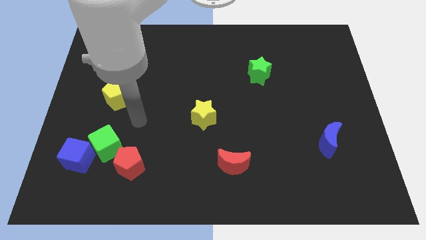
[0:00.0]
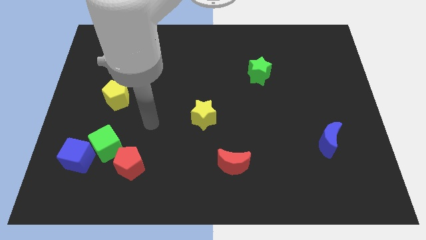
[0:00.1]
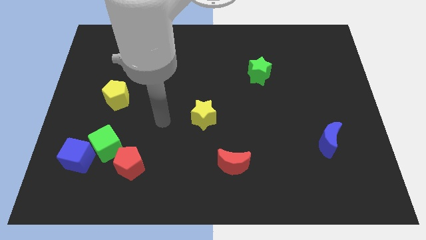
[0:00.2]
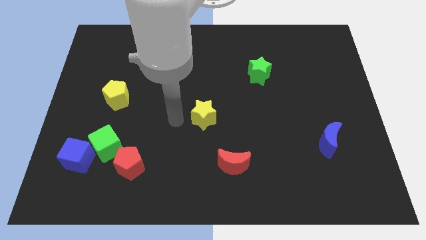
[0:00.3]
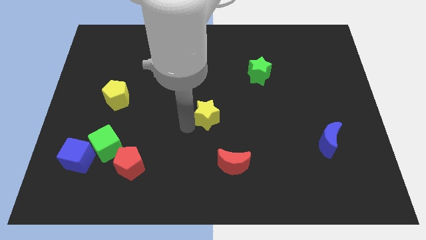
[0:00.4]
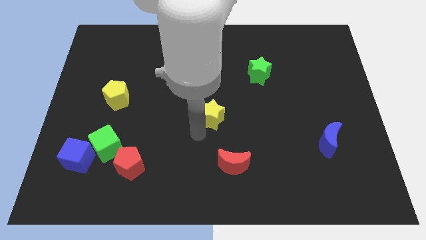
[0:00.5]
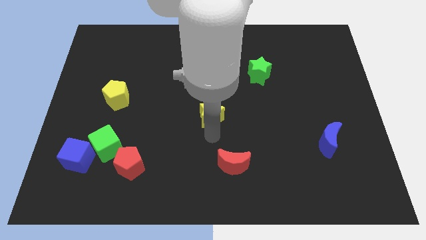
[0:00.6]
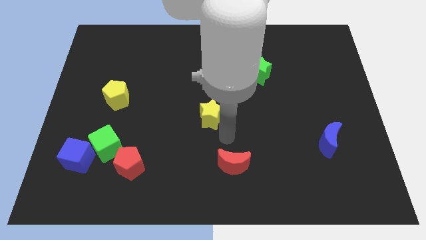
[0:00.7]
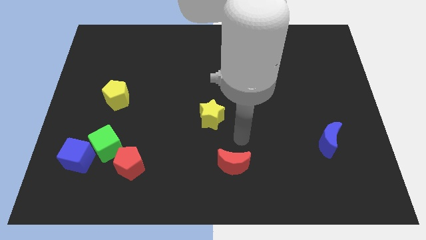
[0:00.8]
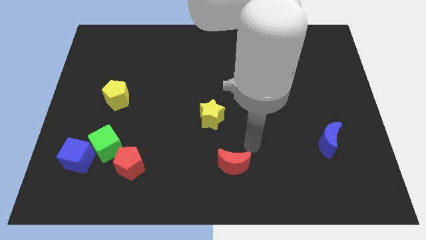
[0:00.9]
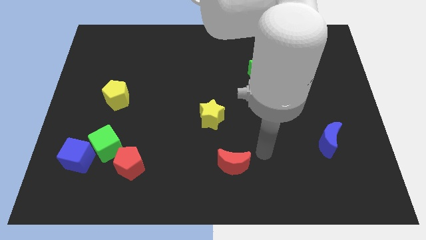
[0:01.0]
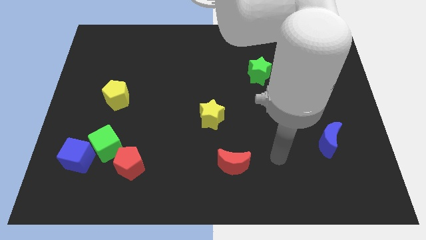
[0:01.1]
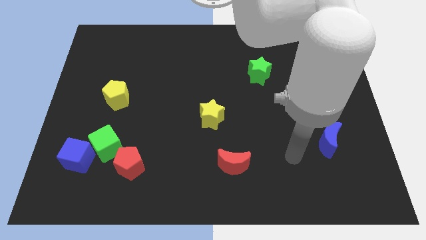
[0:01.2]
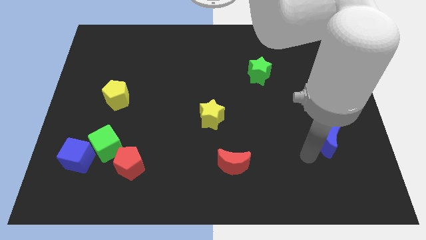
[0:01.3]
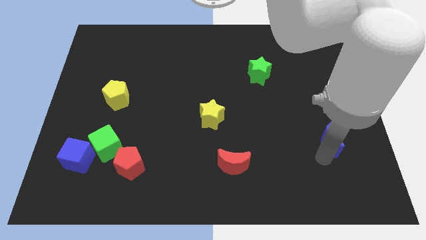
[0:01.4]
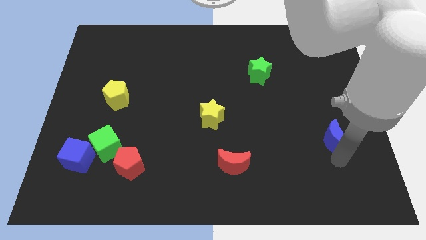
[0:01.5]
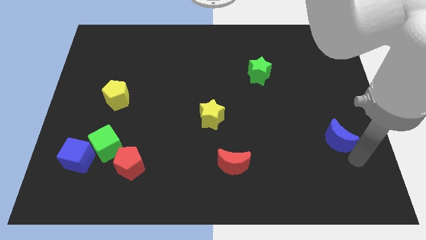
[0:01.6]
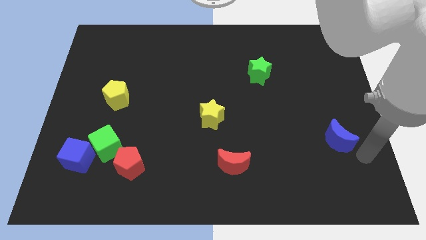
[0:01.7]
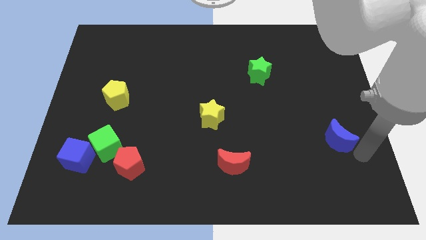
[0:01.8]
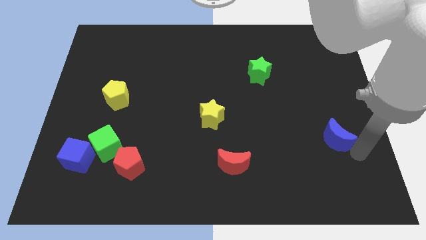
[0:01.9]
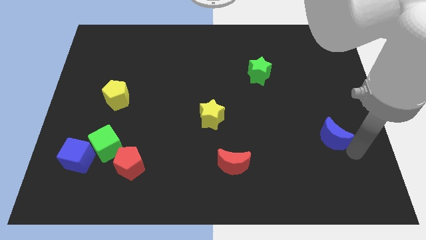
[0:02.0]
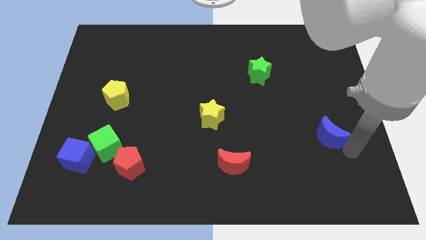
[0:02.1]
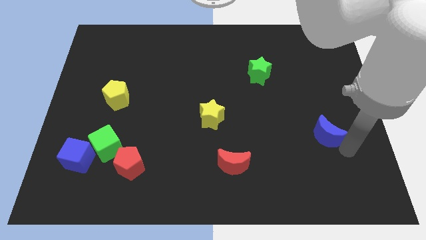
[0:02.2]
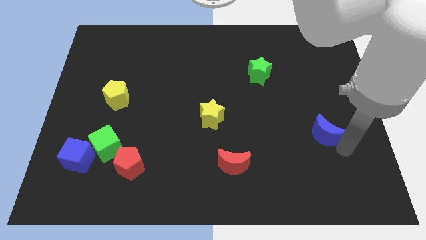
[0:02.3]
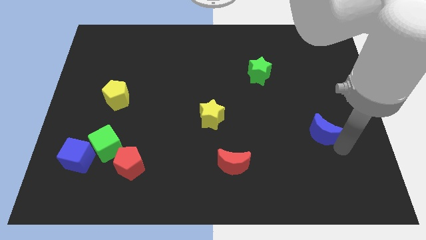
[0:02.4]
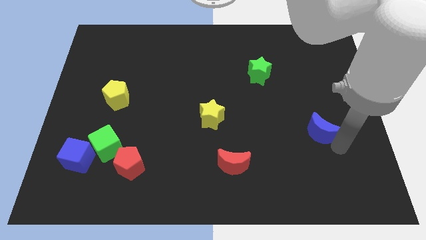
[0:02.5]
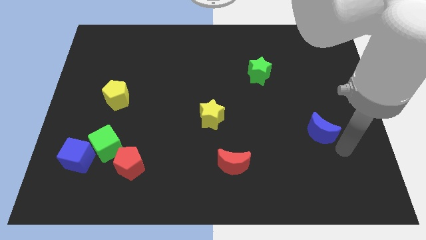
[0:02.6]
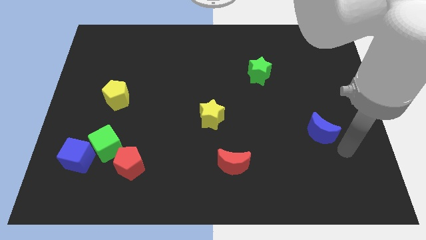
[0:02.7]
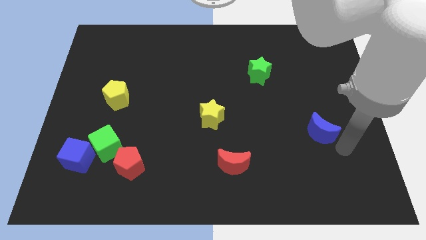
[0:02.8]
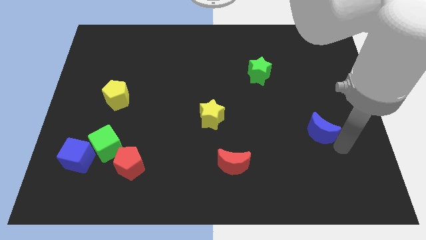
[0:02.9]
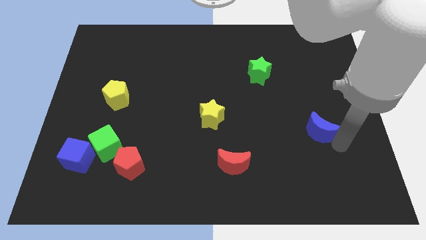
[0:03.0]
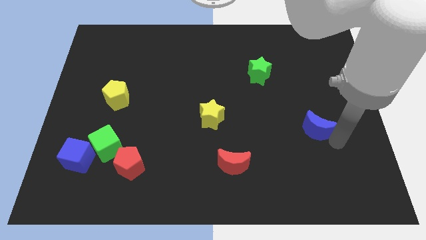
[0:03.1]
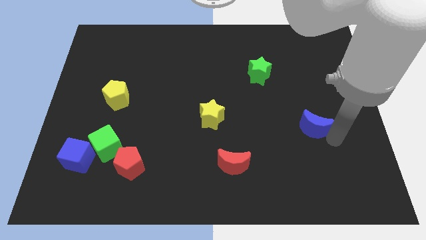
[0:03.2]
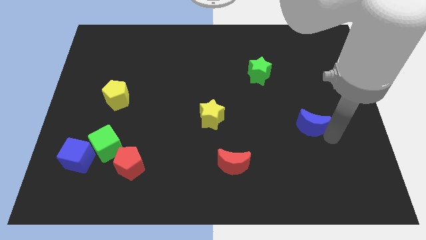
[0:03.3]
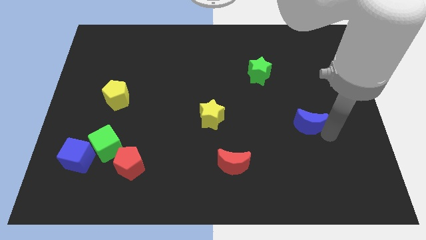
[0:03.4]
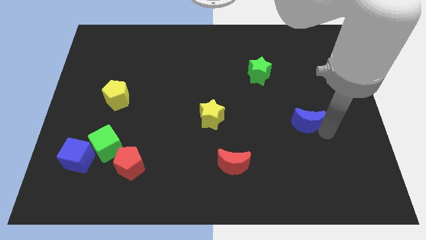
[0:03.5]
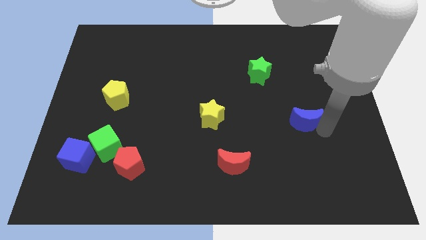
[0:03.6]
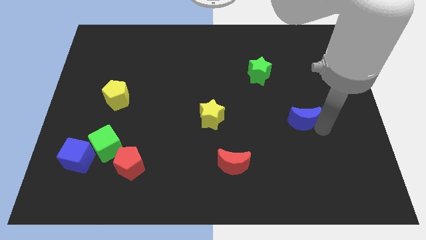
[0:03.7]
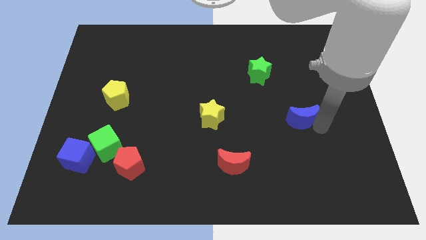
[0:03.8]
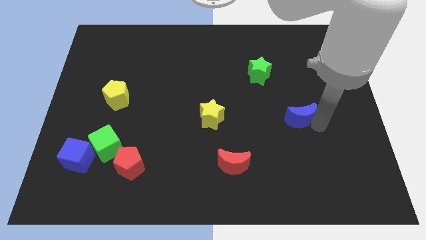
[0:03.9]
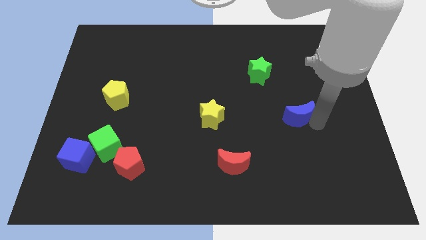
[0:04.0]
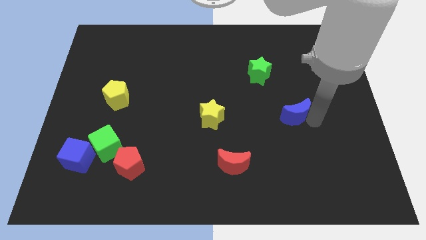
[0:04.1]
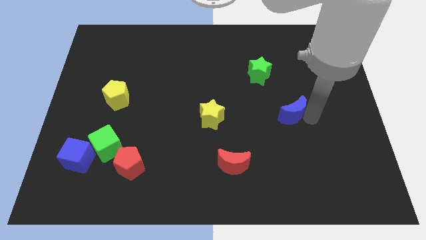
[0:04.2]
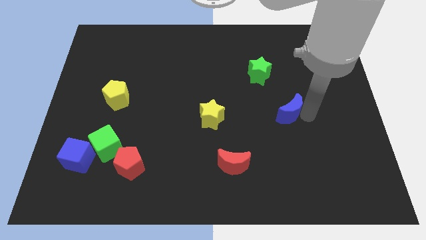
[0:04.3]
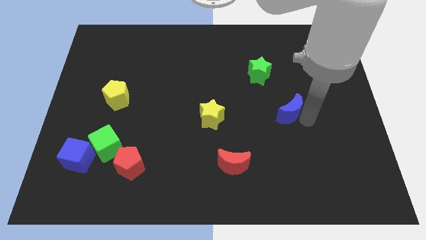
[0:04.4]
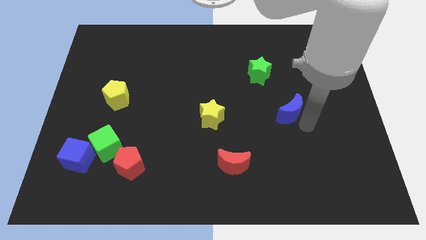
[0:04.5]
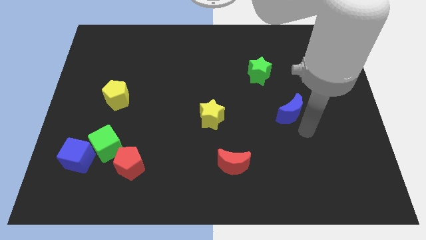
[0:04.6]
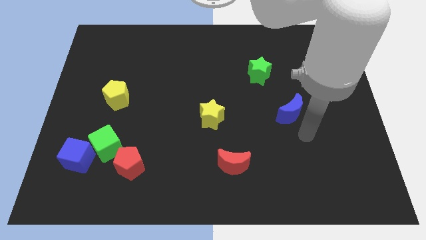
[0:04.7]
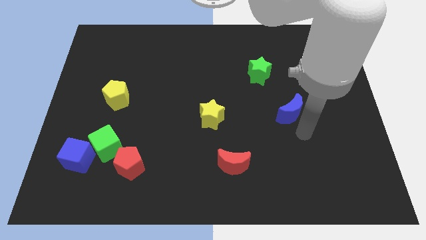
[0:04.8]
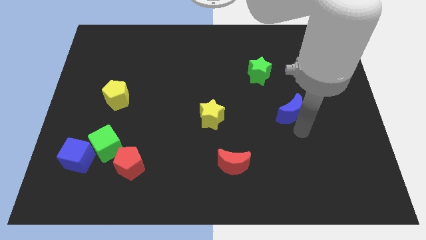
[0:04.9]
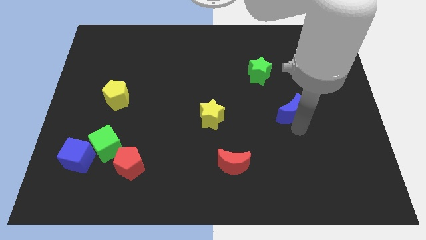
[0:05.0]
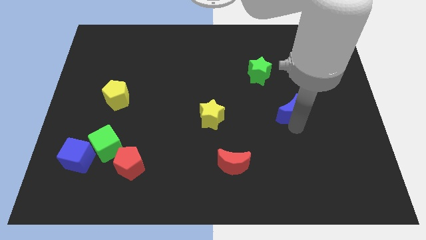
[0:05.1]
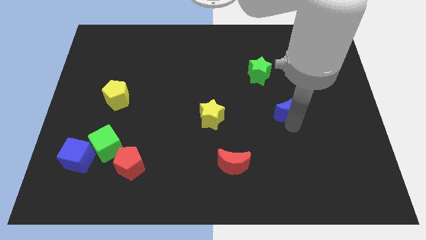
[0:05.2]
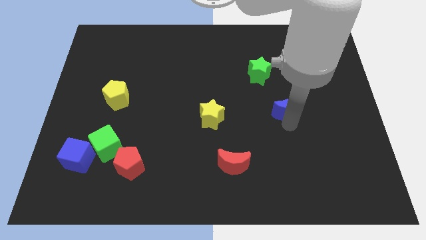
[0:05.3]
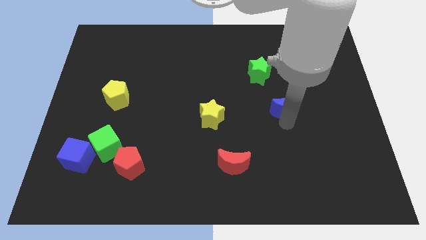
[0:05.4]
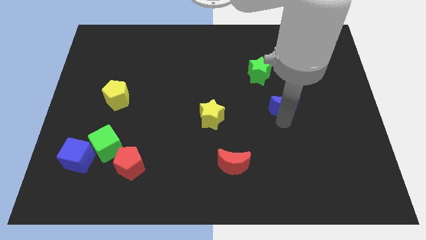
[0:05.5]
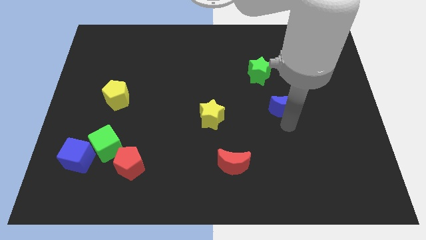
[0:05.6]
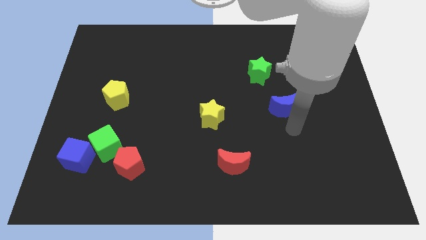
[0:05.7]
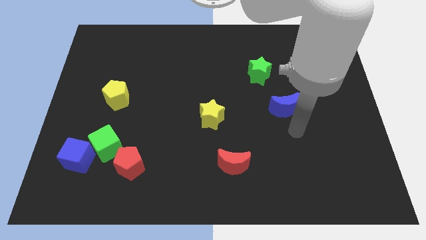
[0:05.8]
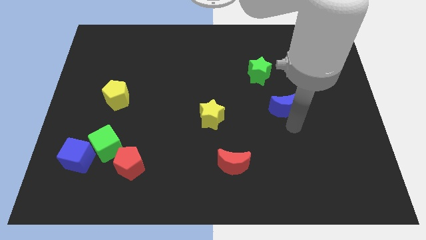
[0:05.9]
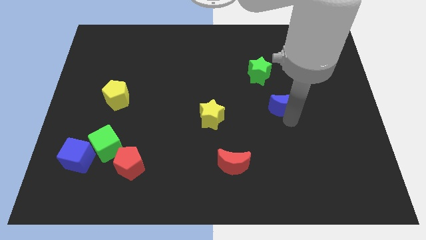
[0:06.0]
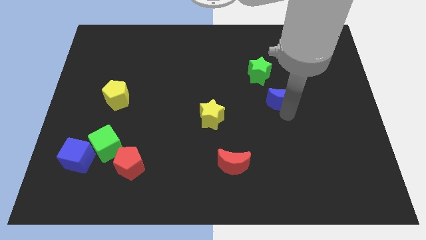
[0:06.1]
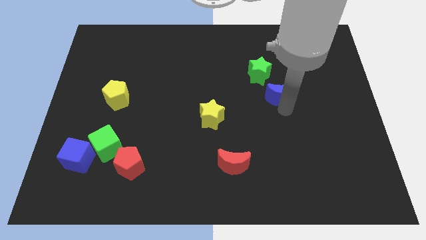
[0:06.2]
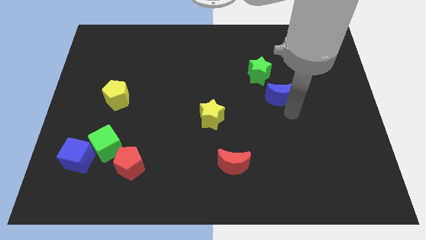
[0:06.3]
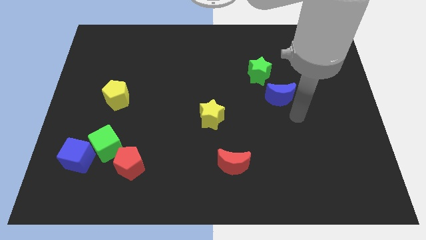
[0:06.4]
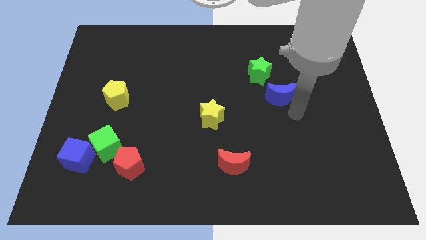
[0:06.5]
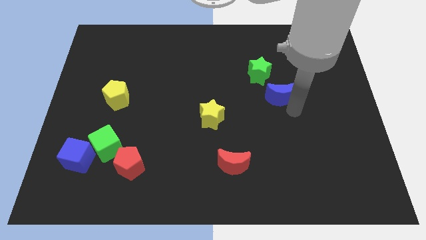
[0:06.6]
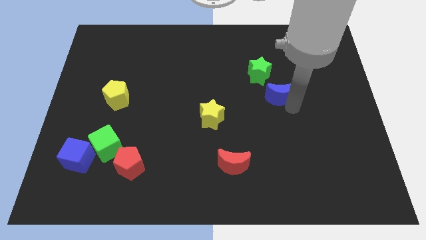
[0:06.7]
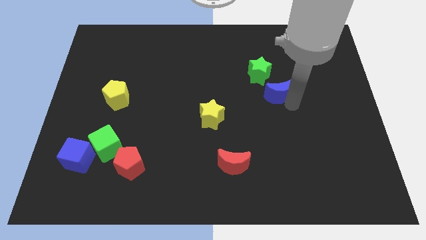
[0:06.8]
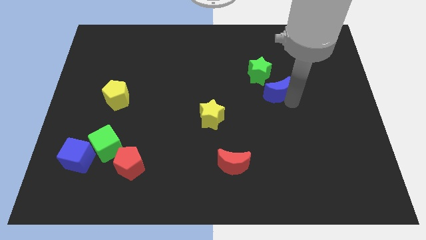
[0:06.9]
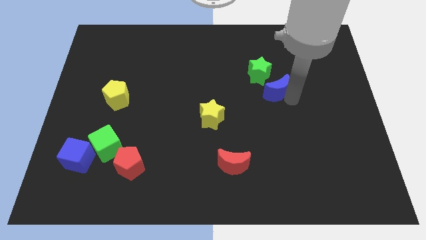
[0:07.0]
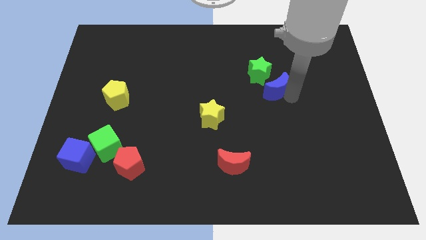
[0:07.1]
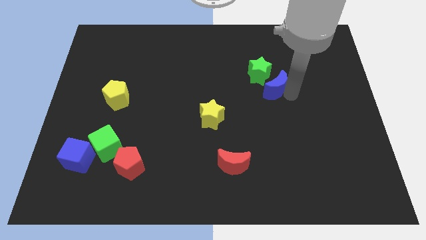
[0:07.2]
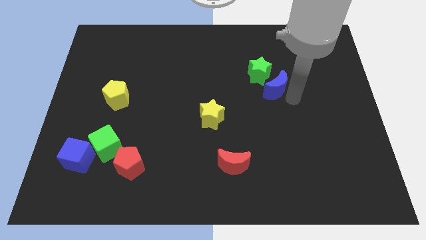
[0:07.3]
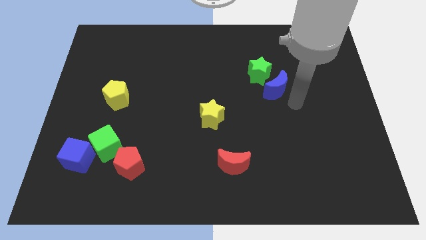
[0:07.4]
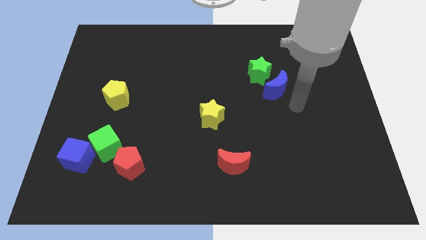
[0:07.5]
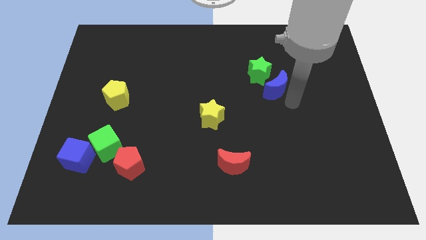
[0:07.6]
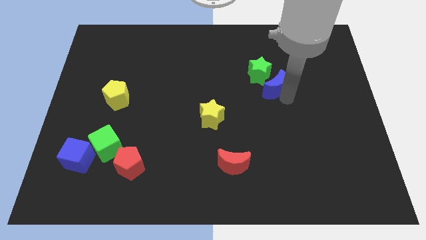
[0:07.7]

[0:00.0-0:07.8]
put the blue moon next to the green star
